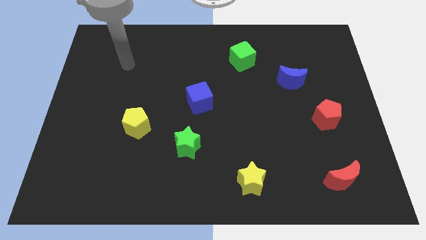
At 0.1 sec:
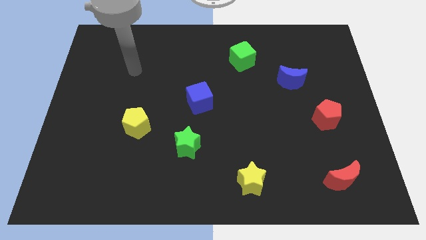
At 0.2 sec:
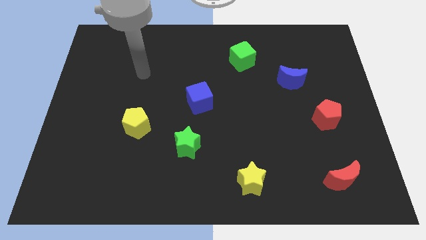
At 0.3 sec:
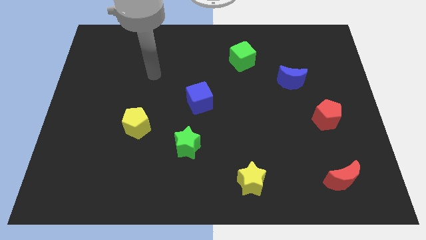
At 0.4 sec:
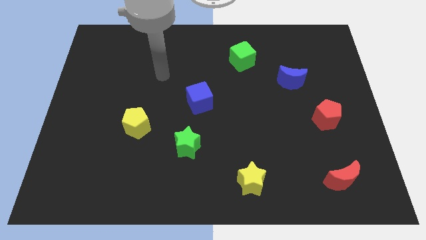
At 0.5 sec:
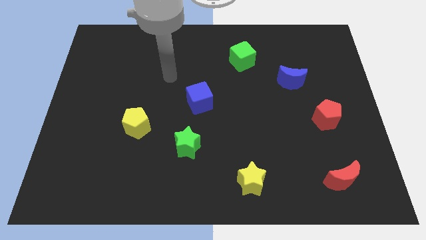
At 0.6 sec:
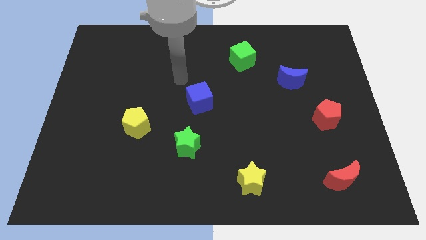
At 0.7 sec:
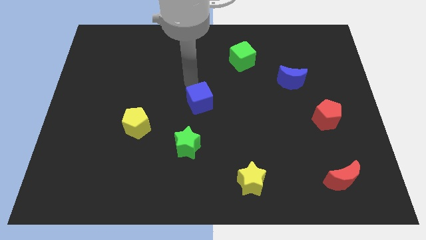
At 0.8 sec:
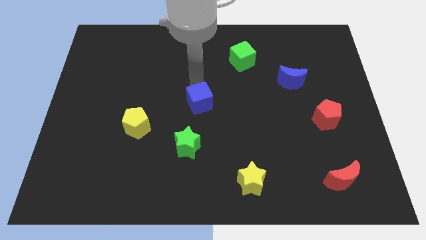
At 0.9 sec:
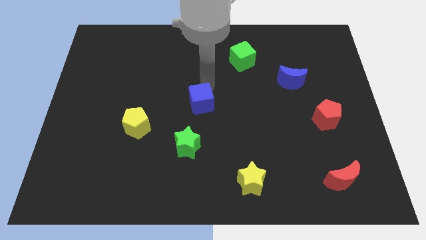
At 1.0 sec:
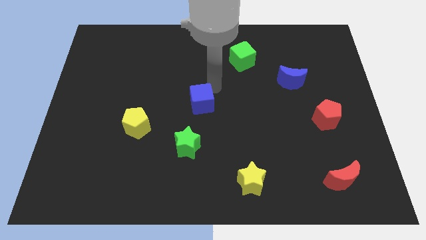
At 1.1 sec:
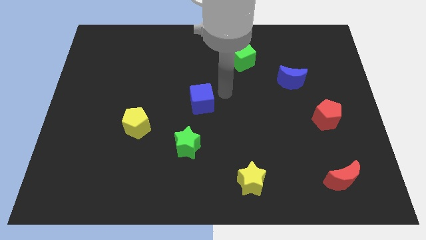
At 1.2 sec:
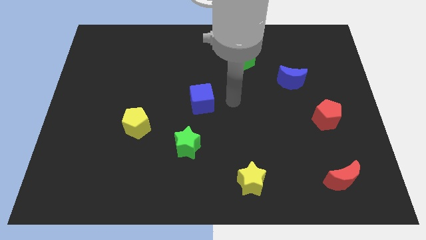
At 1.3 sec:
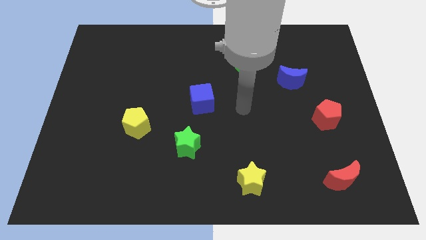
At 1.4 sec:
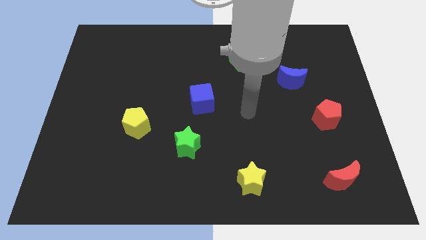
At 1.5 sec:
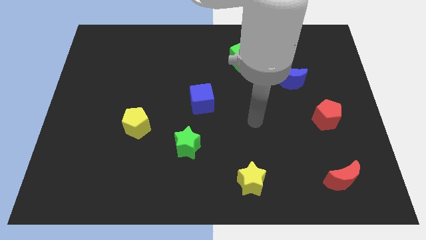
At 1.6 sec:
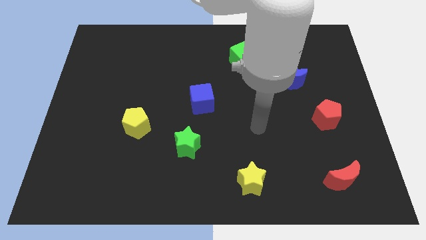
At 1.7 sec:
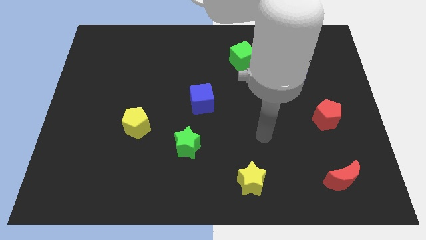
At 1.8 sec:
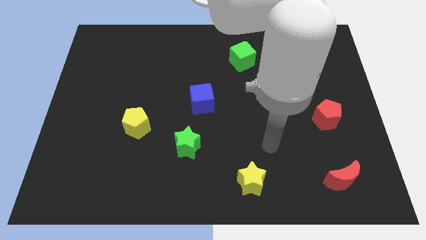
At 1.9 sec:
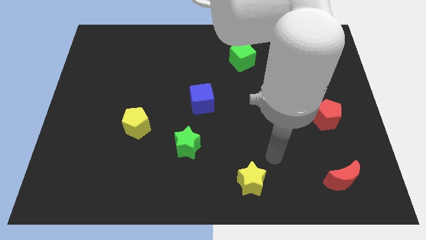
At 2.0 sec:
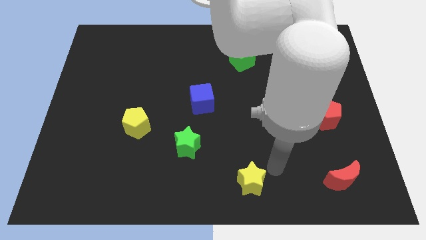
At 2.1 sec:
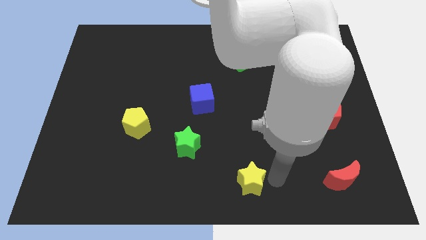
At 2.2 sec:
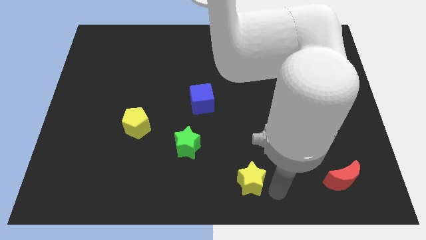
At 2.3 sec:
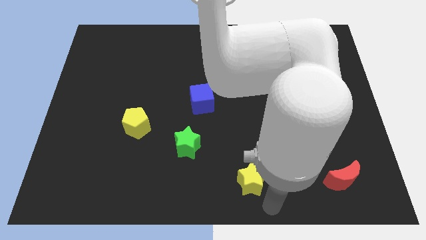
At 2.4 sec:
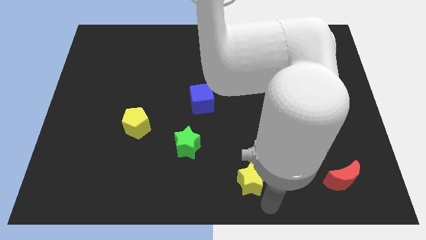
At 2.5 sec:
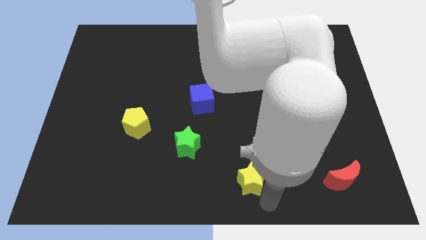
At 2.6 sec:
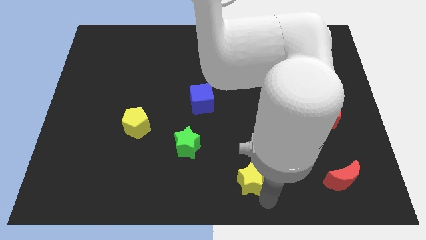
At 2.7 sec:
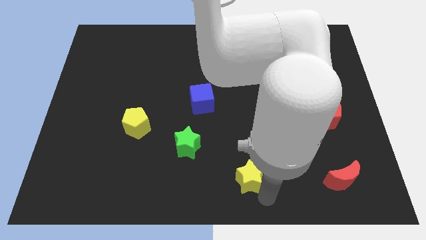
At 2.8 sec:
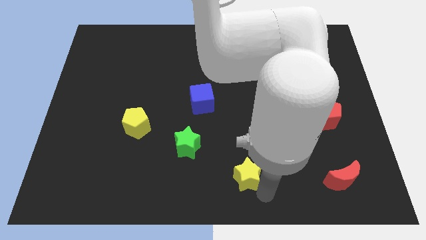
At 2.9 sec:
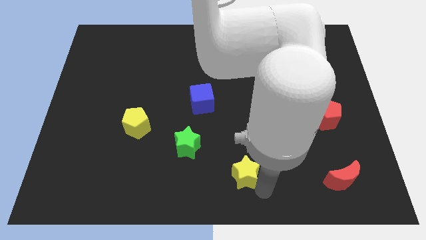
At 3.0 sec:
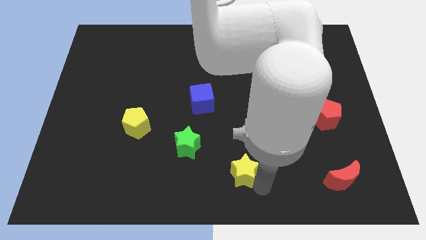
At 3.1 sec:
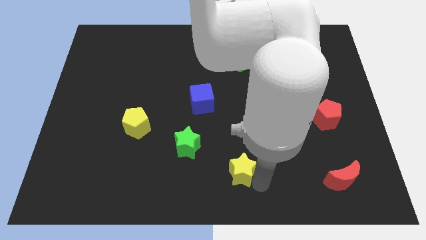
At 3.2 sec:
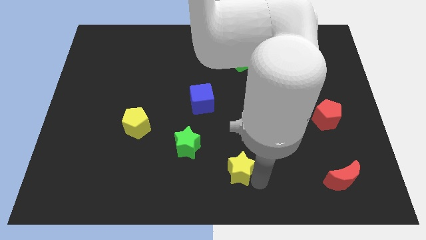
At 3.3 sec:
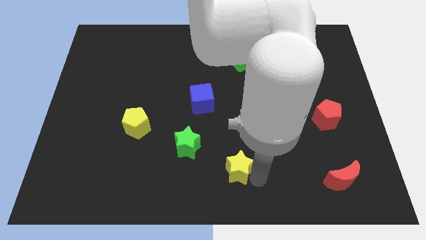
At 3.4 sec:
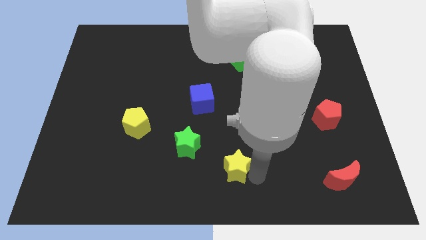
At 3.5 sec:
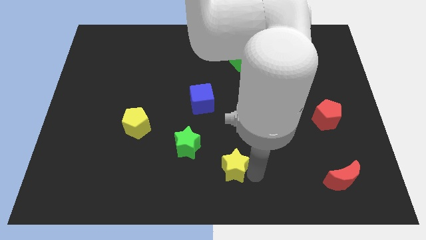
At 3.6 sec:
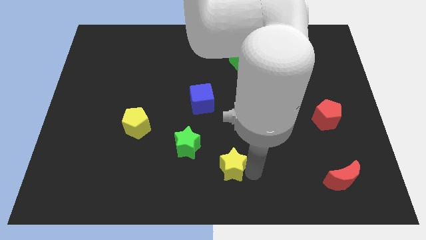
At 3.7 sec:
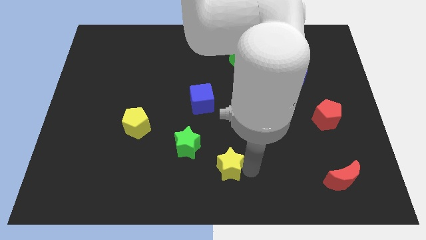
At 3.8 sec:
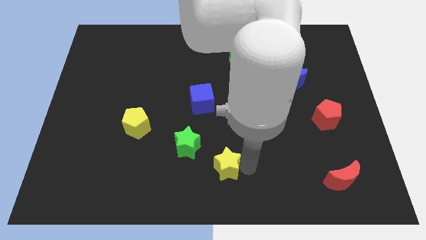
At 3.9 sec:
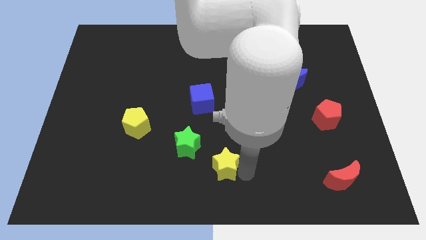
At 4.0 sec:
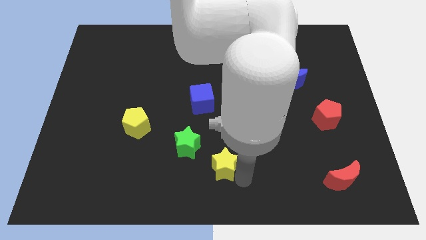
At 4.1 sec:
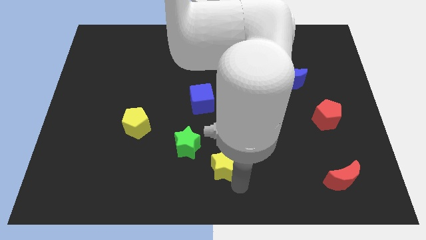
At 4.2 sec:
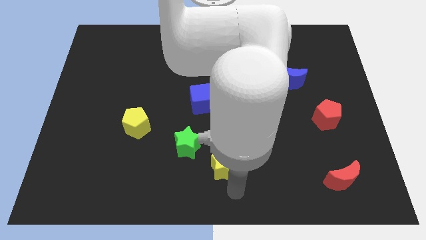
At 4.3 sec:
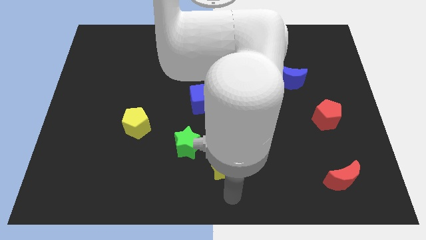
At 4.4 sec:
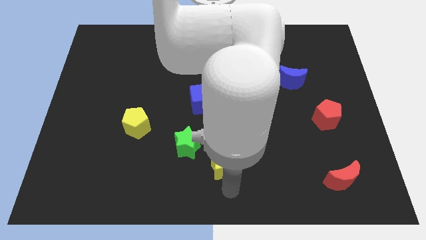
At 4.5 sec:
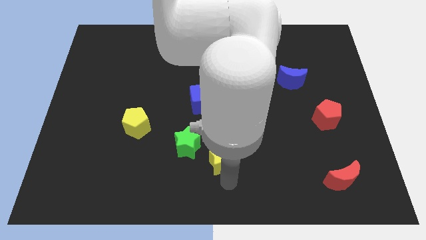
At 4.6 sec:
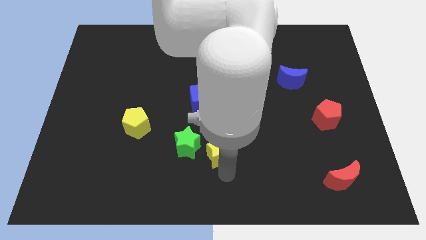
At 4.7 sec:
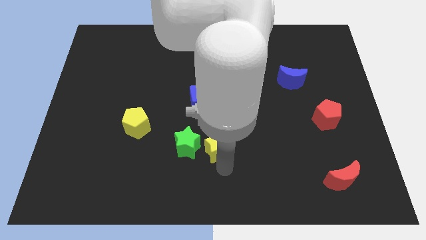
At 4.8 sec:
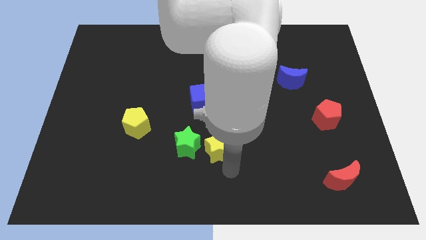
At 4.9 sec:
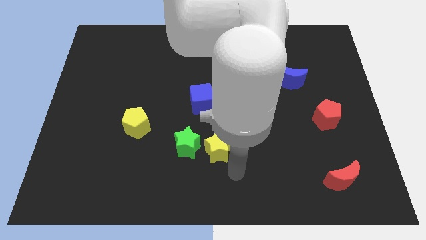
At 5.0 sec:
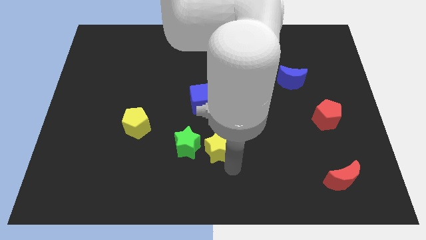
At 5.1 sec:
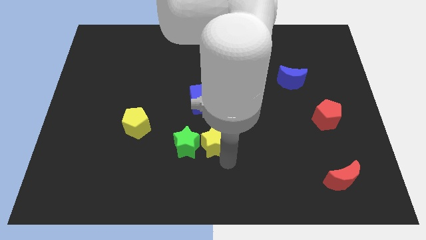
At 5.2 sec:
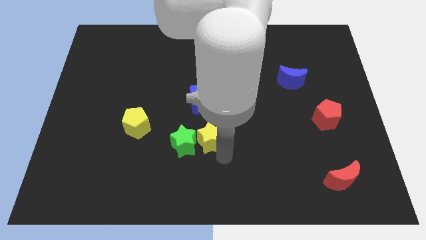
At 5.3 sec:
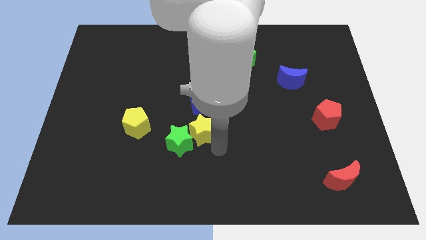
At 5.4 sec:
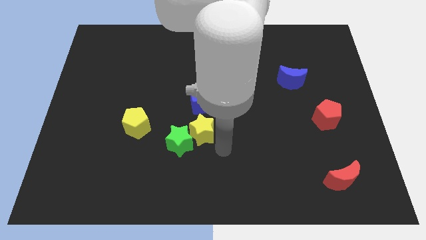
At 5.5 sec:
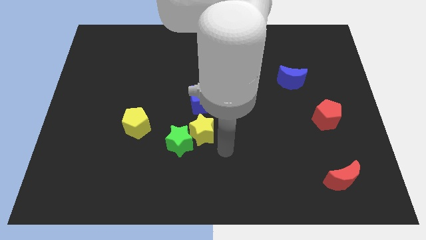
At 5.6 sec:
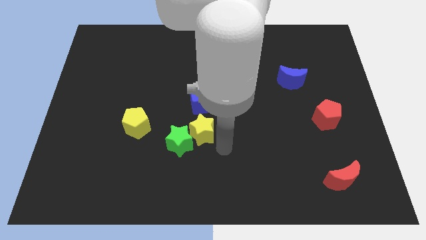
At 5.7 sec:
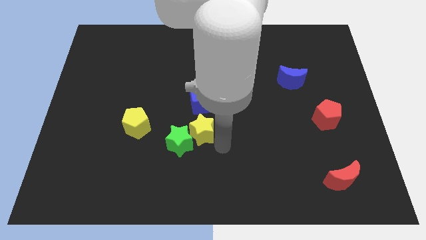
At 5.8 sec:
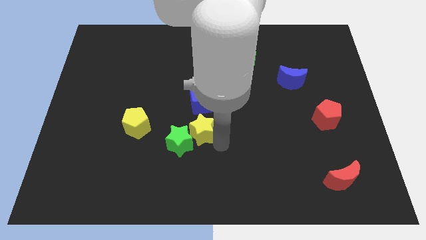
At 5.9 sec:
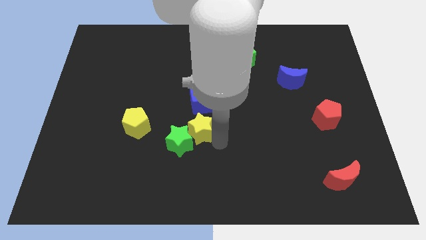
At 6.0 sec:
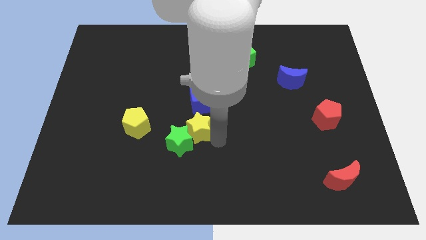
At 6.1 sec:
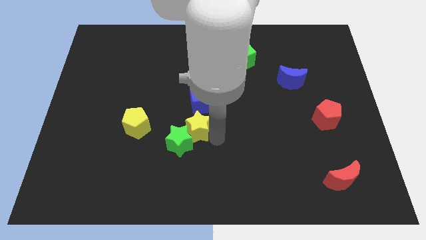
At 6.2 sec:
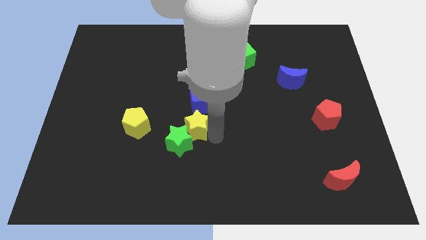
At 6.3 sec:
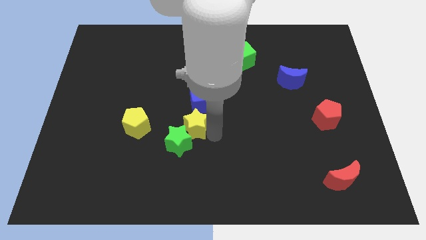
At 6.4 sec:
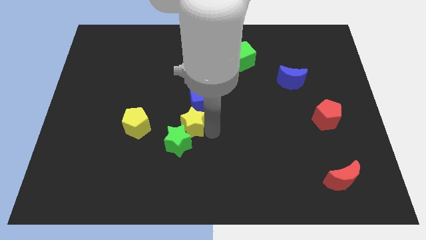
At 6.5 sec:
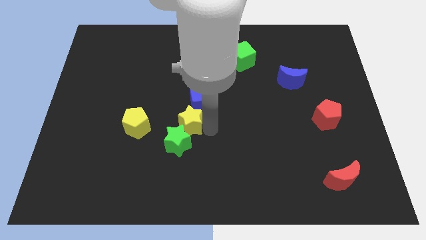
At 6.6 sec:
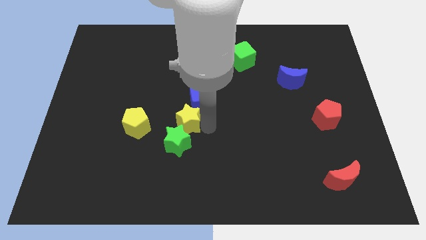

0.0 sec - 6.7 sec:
slide the yellow star up and to the left diagonally

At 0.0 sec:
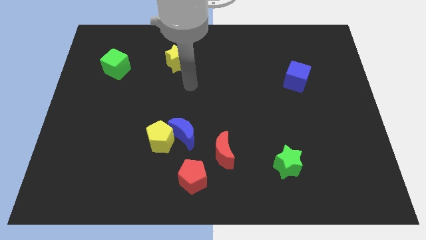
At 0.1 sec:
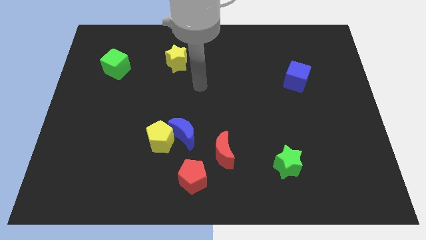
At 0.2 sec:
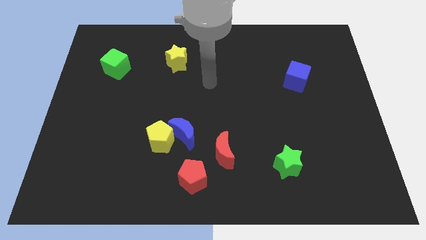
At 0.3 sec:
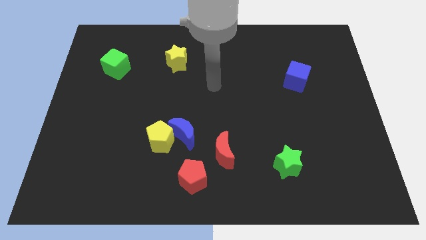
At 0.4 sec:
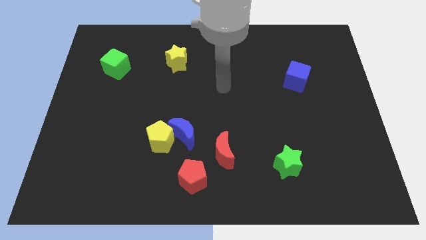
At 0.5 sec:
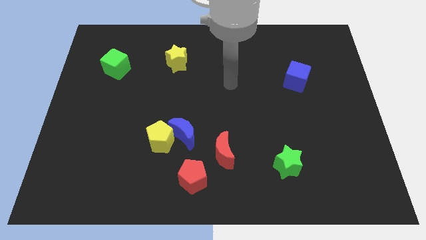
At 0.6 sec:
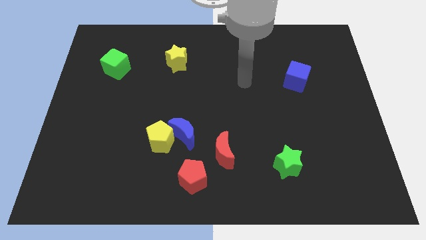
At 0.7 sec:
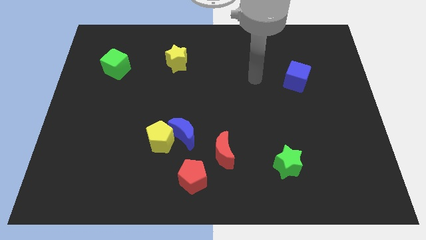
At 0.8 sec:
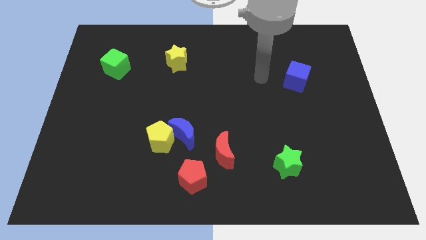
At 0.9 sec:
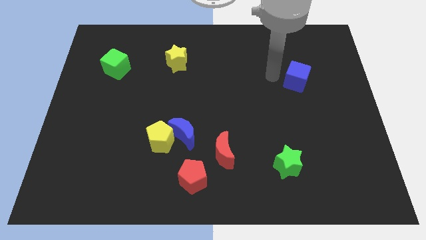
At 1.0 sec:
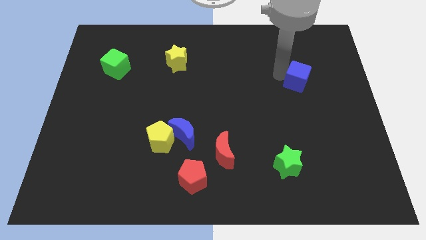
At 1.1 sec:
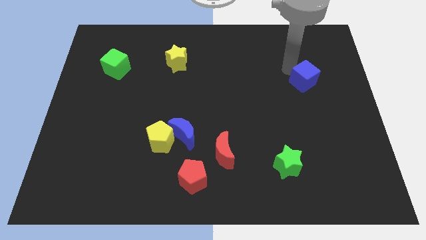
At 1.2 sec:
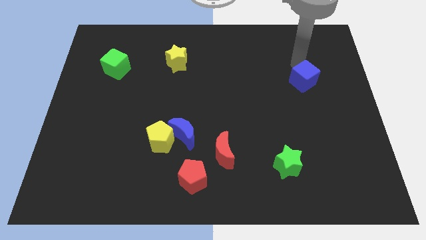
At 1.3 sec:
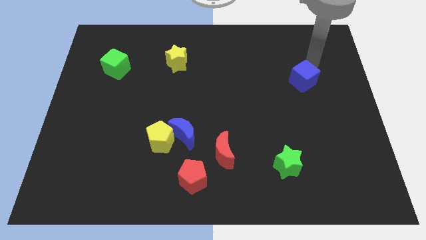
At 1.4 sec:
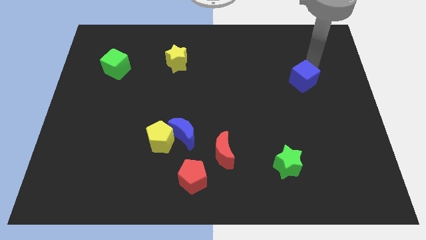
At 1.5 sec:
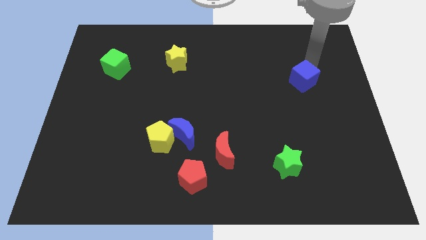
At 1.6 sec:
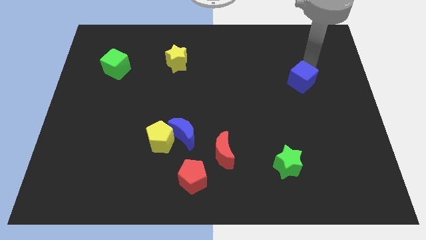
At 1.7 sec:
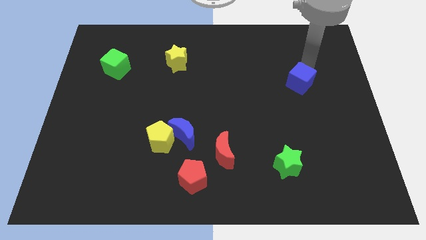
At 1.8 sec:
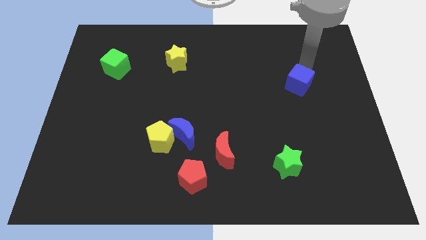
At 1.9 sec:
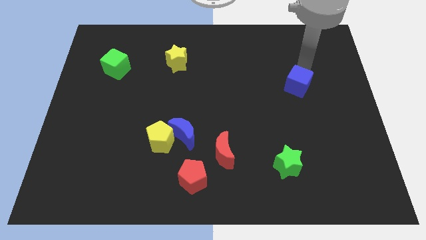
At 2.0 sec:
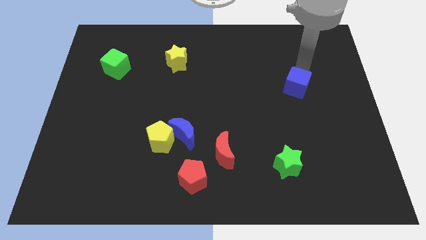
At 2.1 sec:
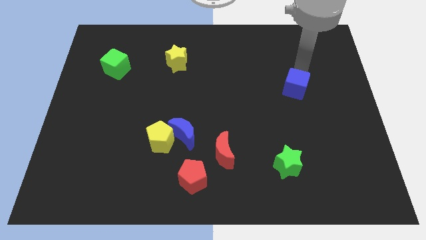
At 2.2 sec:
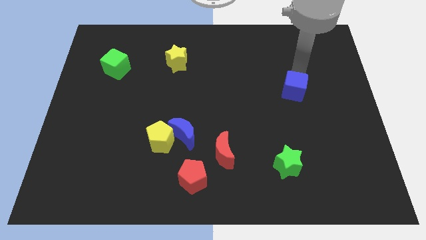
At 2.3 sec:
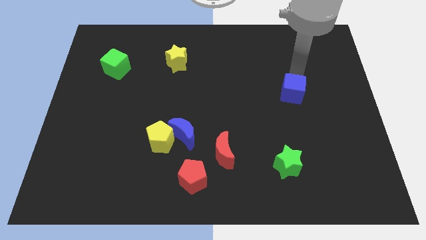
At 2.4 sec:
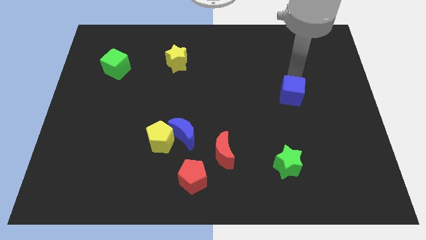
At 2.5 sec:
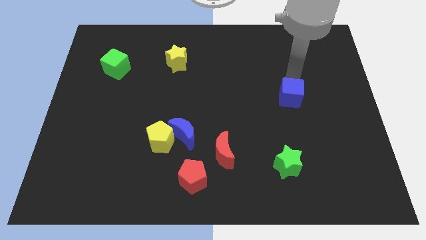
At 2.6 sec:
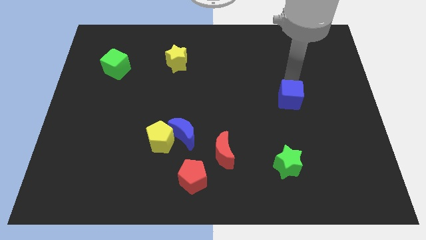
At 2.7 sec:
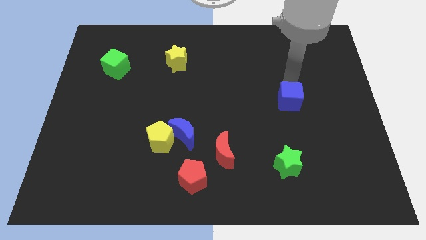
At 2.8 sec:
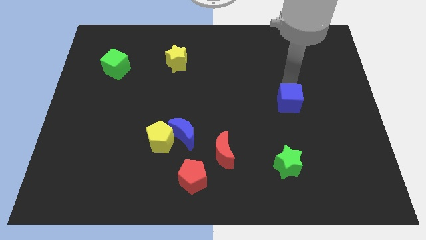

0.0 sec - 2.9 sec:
move the blue cube down a little
